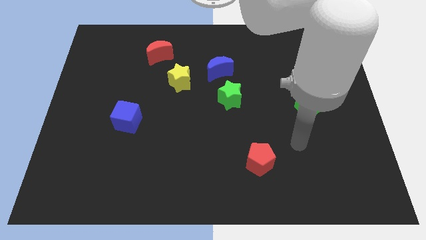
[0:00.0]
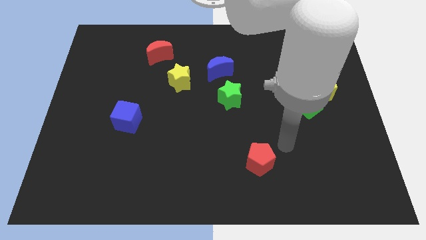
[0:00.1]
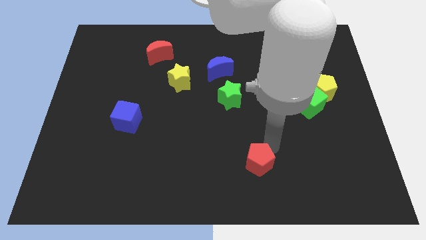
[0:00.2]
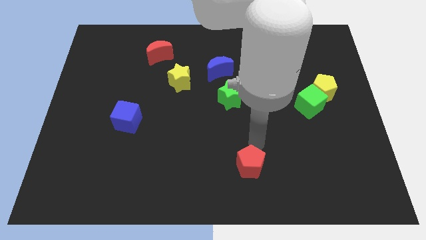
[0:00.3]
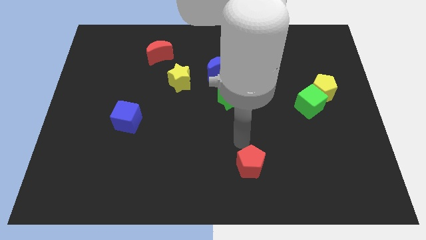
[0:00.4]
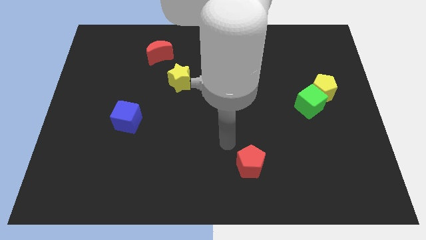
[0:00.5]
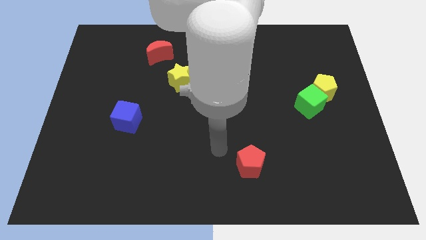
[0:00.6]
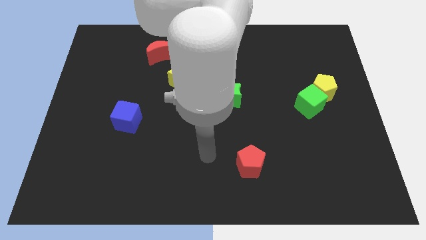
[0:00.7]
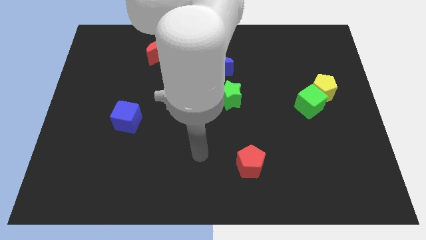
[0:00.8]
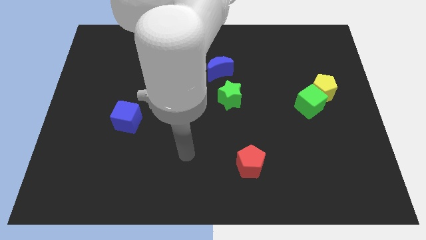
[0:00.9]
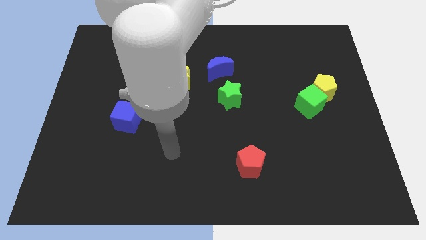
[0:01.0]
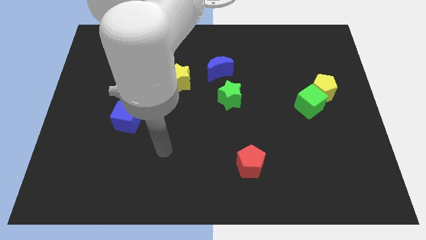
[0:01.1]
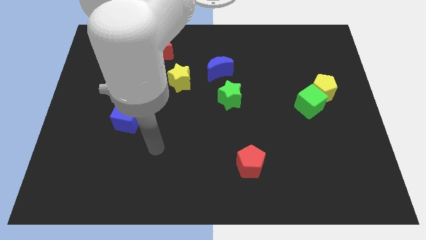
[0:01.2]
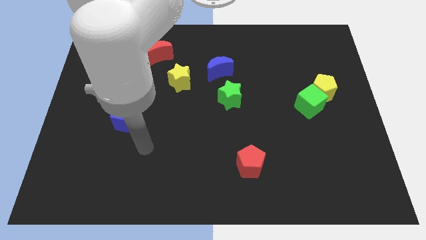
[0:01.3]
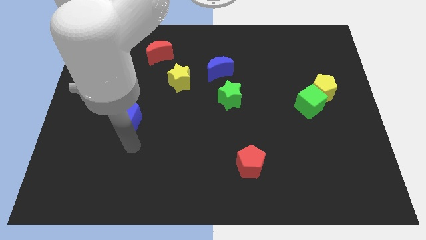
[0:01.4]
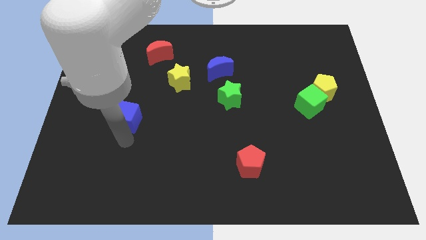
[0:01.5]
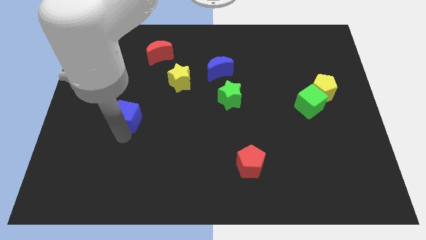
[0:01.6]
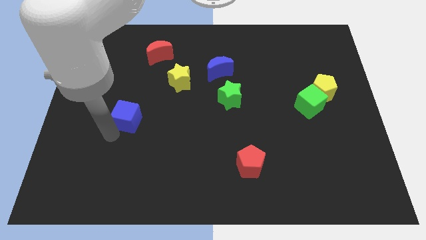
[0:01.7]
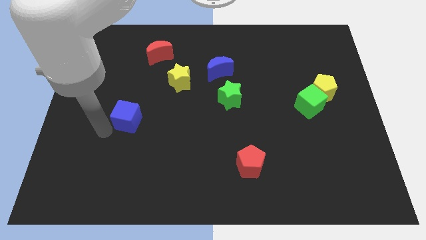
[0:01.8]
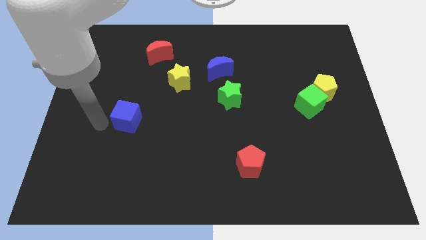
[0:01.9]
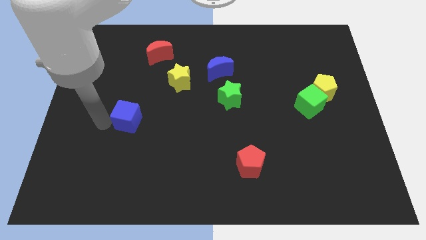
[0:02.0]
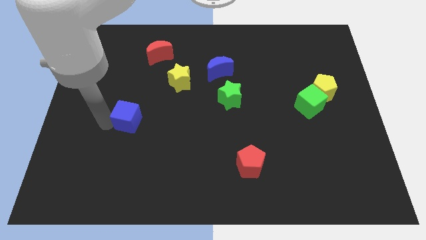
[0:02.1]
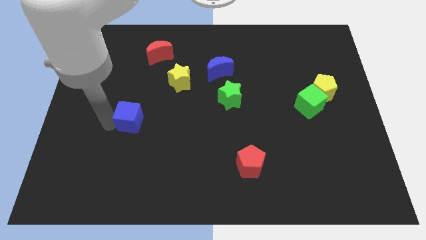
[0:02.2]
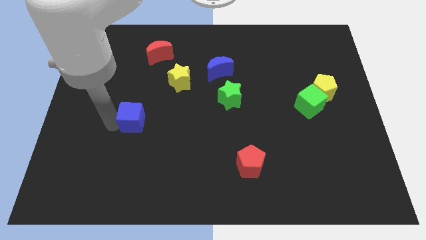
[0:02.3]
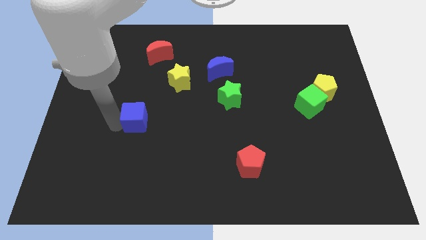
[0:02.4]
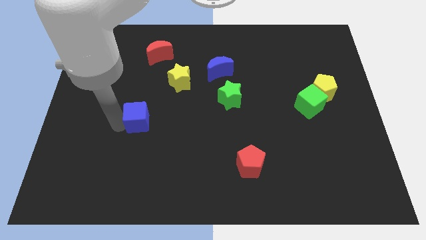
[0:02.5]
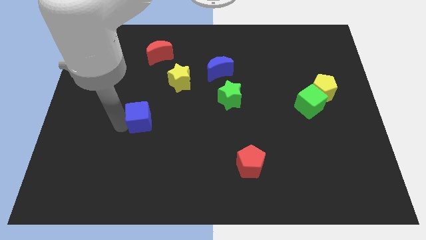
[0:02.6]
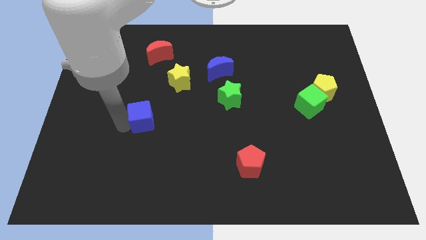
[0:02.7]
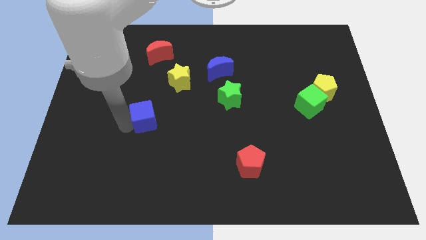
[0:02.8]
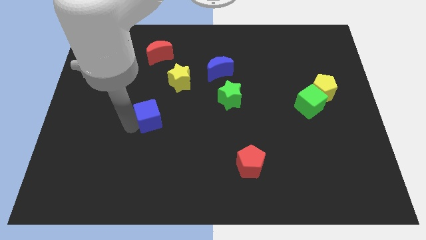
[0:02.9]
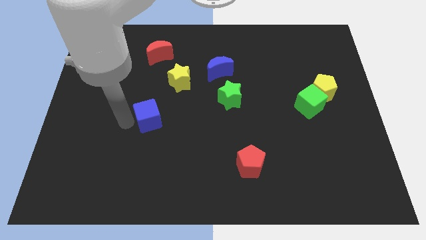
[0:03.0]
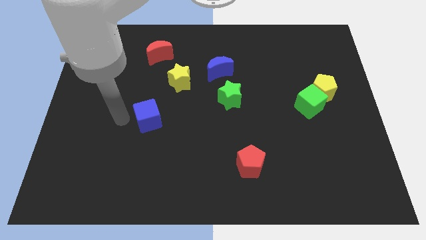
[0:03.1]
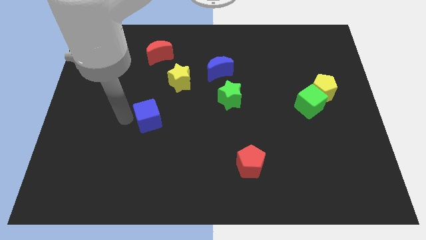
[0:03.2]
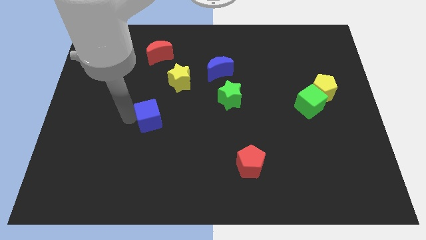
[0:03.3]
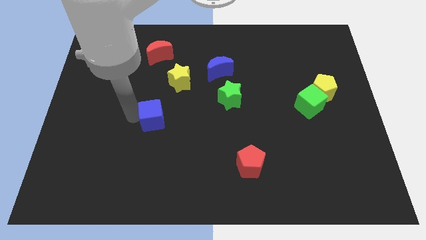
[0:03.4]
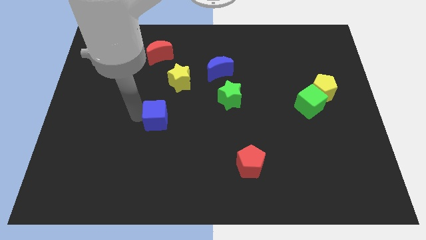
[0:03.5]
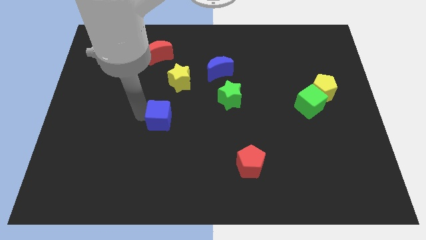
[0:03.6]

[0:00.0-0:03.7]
slightly push the blue cube right

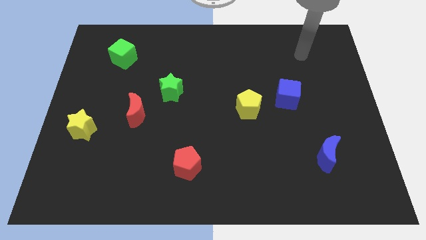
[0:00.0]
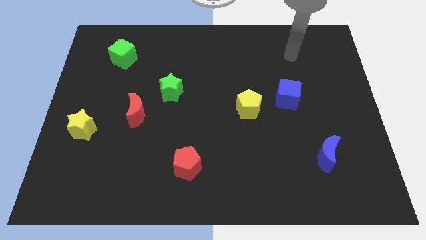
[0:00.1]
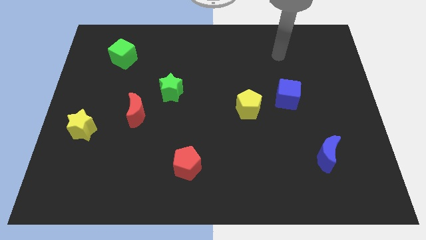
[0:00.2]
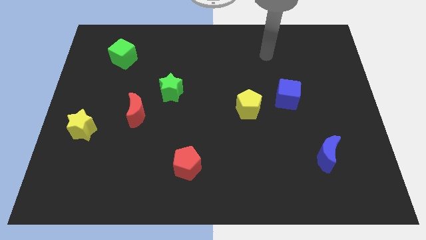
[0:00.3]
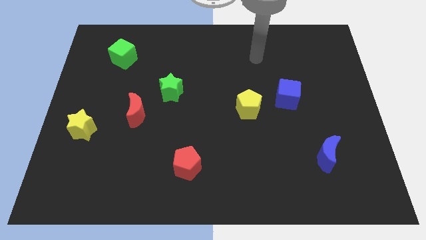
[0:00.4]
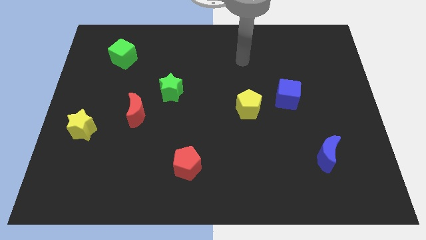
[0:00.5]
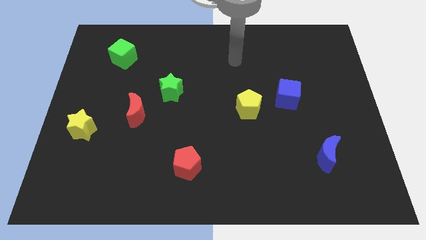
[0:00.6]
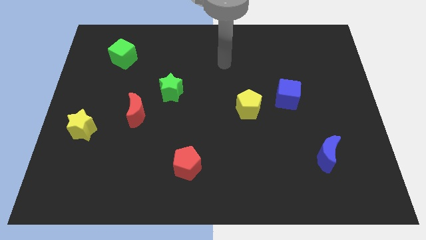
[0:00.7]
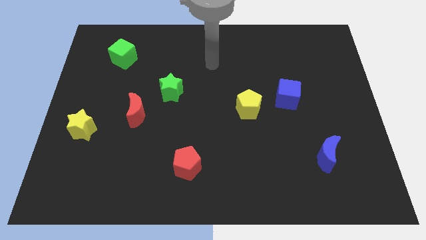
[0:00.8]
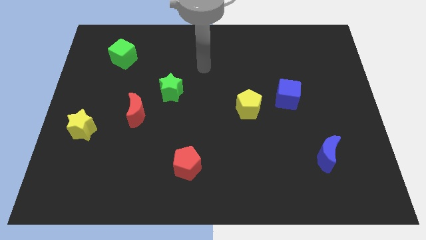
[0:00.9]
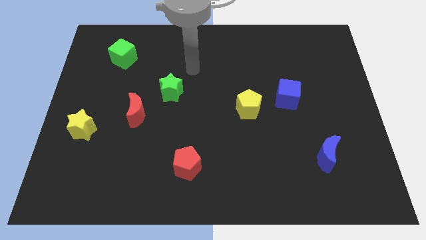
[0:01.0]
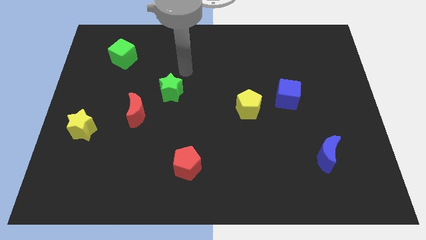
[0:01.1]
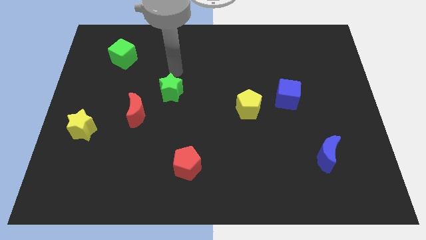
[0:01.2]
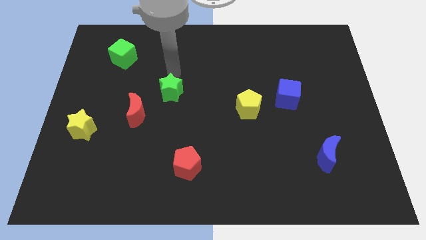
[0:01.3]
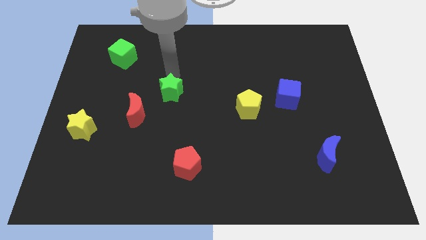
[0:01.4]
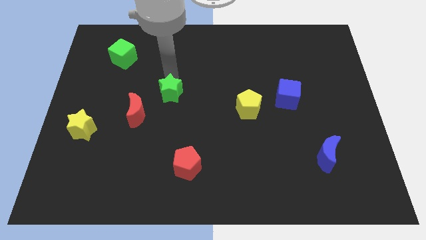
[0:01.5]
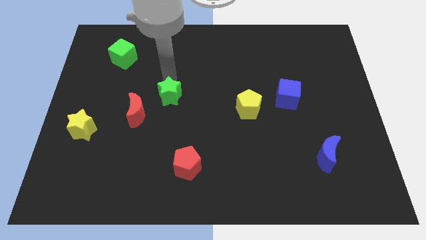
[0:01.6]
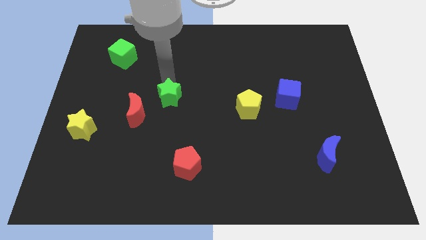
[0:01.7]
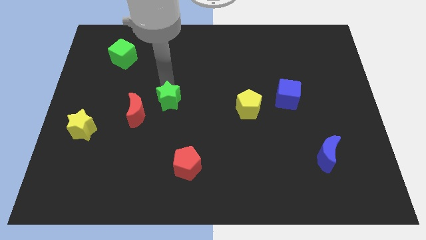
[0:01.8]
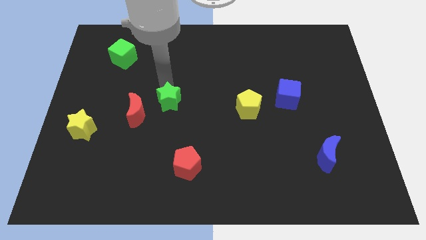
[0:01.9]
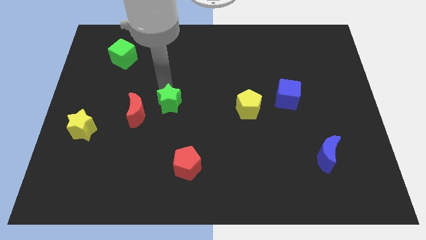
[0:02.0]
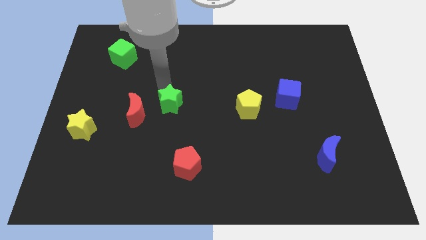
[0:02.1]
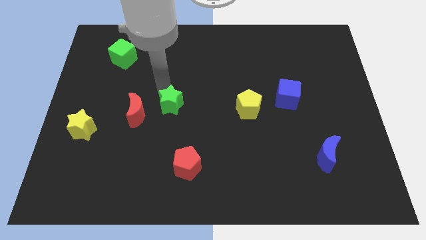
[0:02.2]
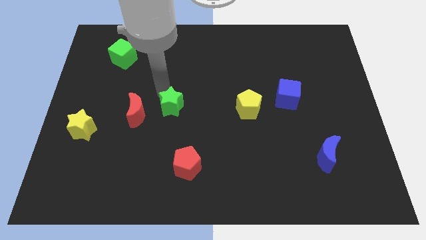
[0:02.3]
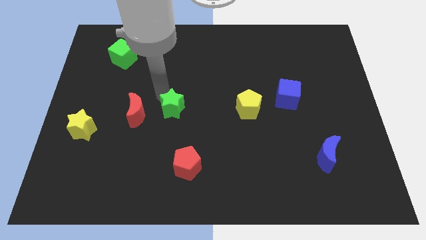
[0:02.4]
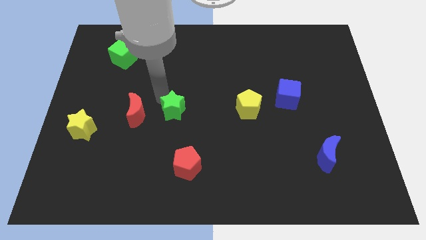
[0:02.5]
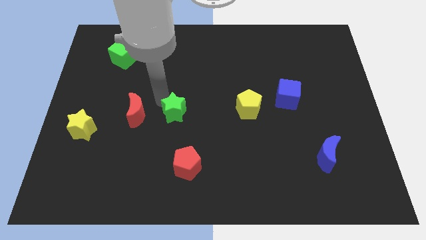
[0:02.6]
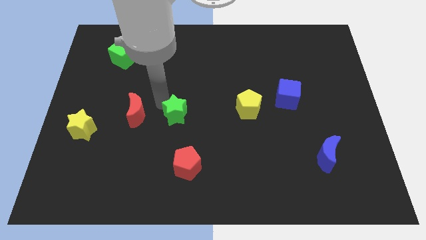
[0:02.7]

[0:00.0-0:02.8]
slide the green star somewhat downwards

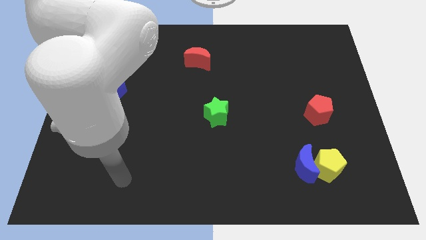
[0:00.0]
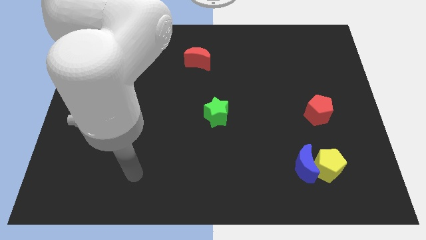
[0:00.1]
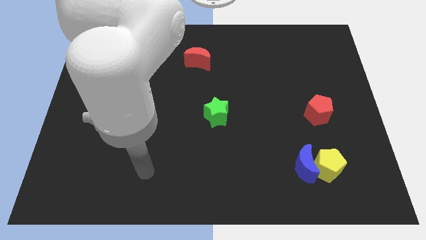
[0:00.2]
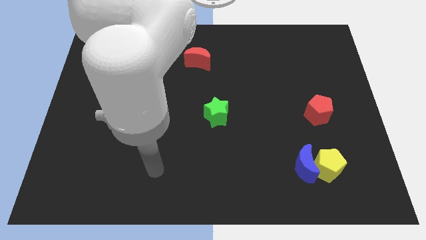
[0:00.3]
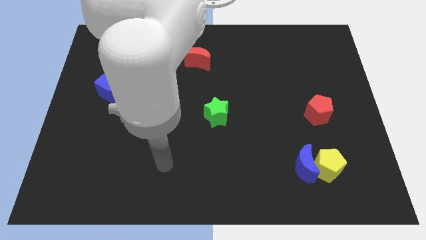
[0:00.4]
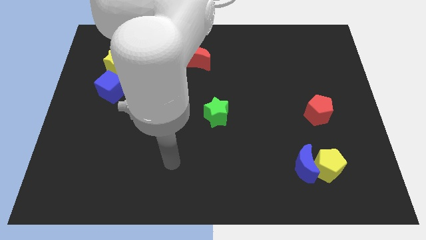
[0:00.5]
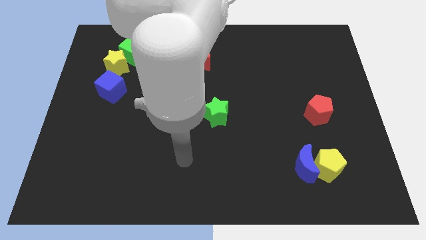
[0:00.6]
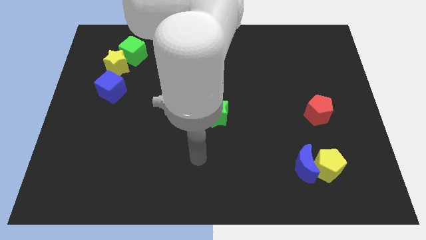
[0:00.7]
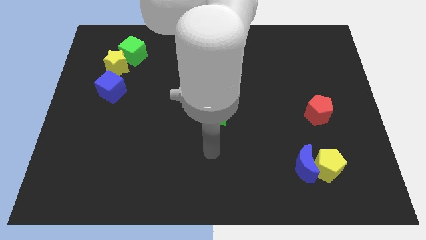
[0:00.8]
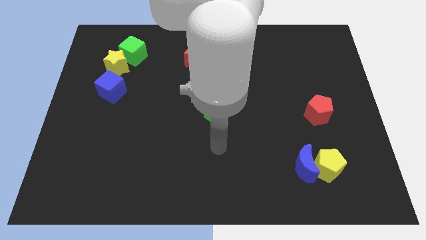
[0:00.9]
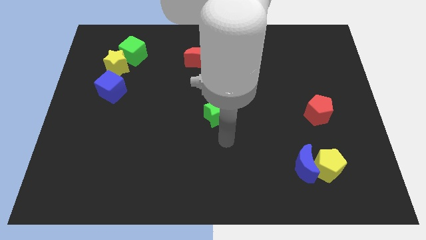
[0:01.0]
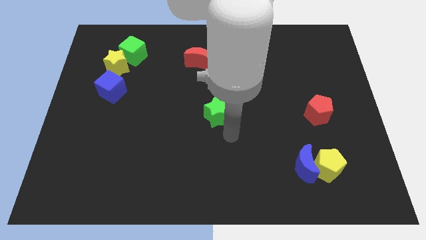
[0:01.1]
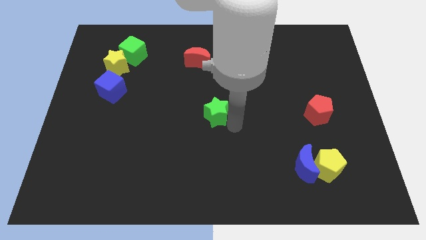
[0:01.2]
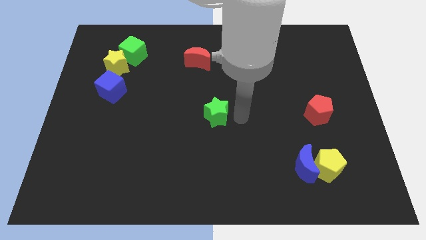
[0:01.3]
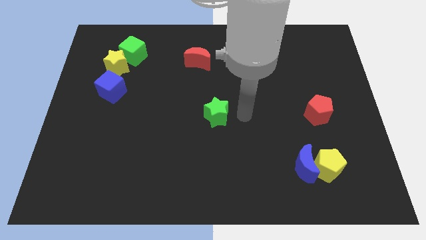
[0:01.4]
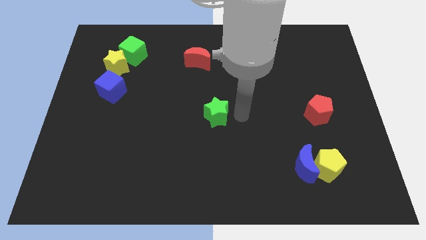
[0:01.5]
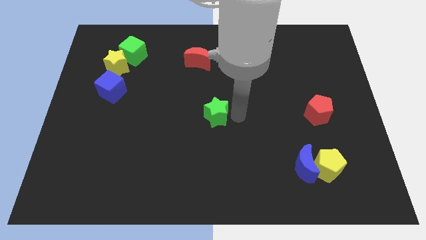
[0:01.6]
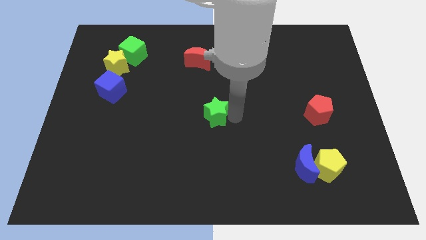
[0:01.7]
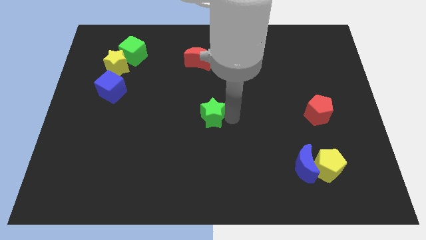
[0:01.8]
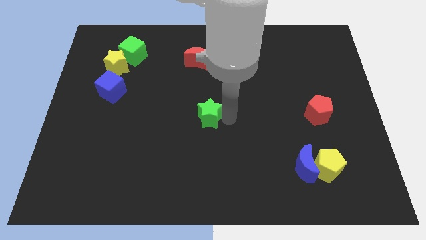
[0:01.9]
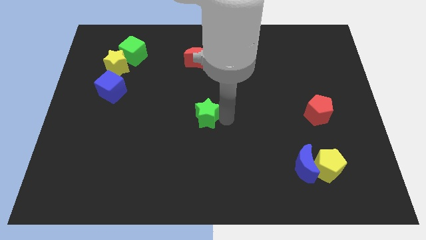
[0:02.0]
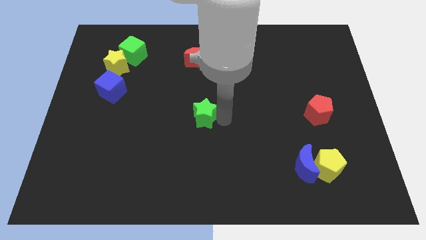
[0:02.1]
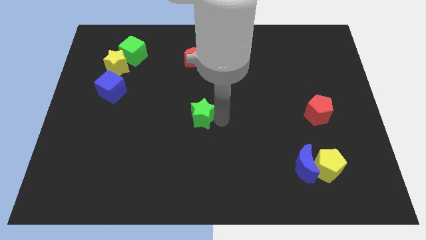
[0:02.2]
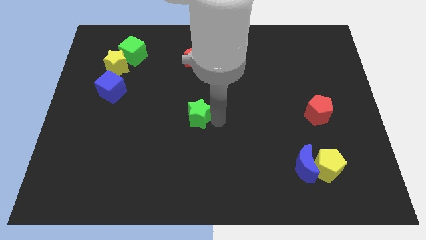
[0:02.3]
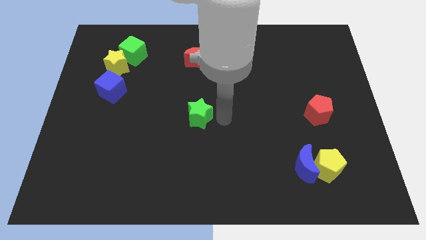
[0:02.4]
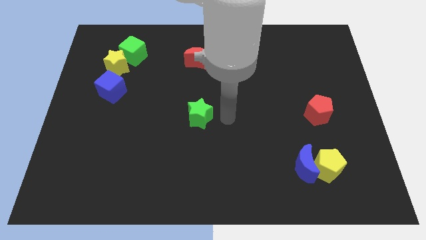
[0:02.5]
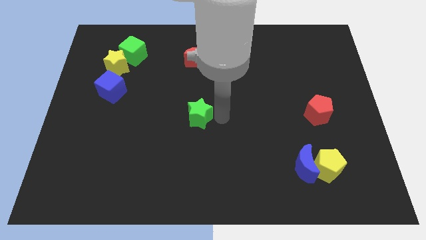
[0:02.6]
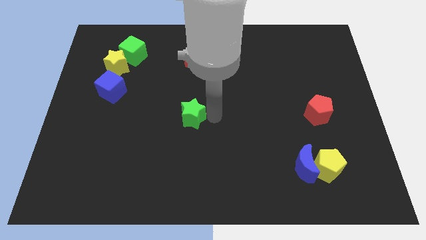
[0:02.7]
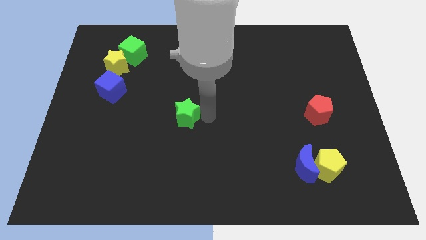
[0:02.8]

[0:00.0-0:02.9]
push the green star to the left slightly
